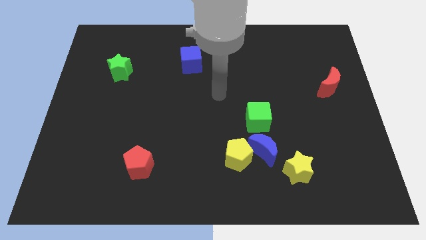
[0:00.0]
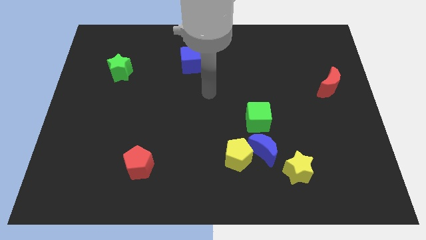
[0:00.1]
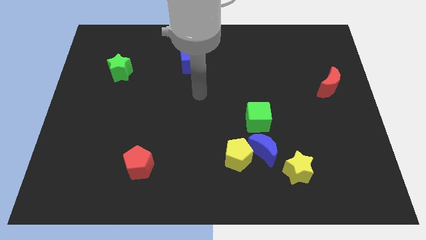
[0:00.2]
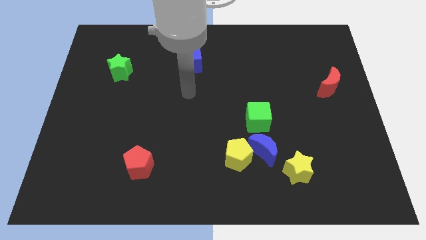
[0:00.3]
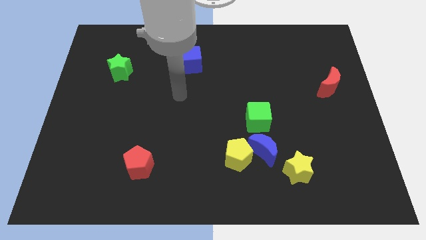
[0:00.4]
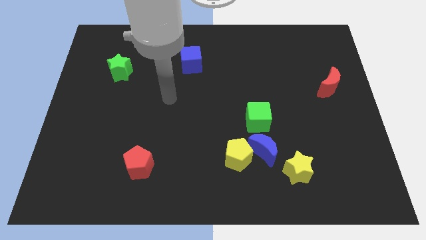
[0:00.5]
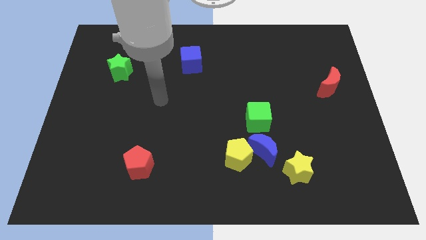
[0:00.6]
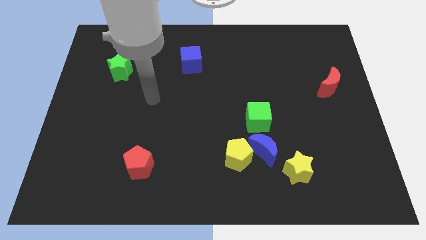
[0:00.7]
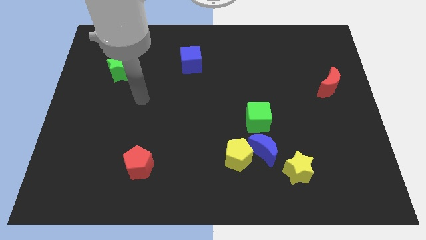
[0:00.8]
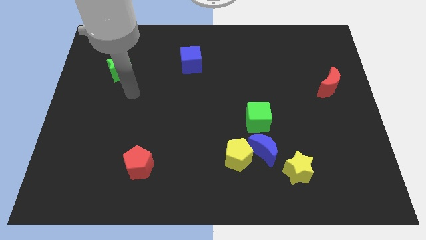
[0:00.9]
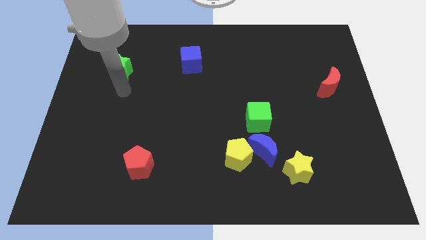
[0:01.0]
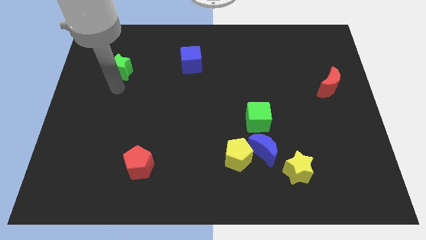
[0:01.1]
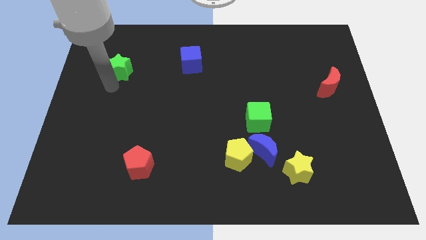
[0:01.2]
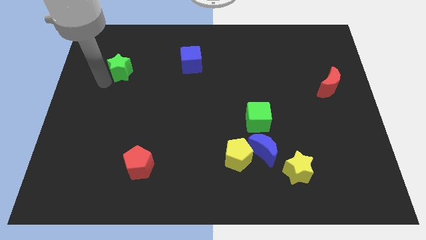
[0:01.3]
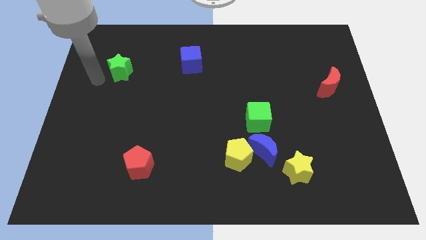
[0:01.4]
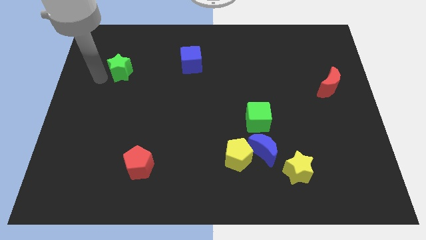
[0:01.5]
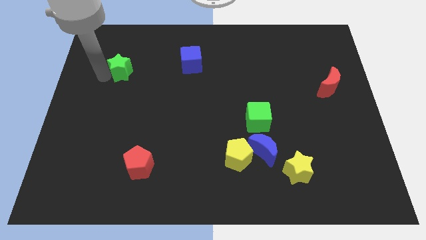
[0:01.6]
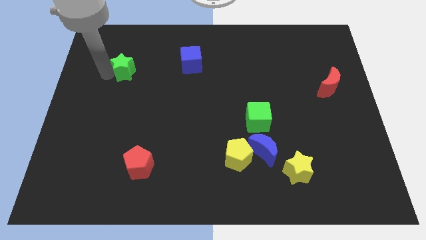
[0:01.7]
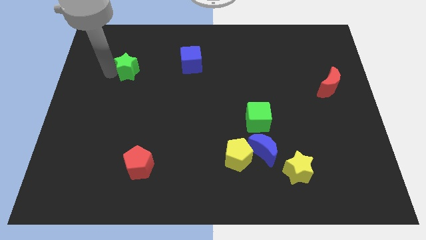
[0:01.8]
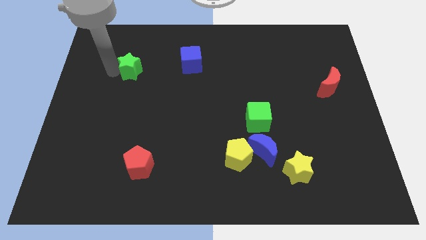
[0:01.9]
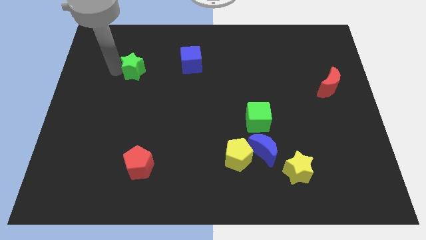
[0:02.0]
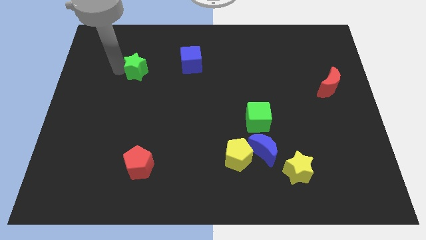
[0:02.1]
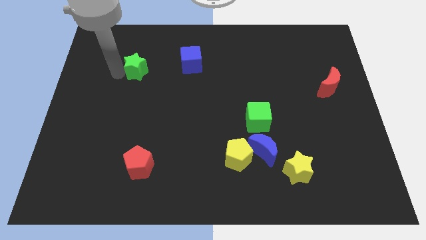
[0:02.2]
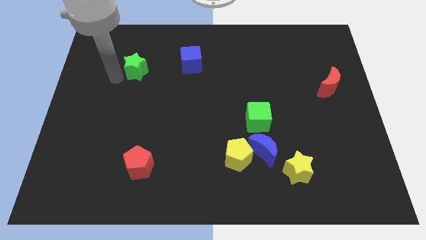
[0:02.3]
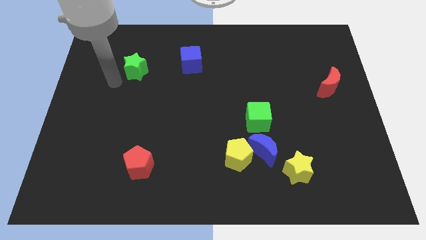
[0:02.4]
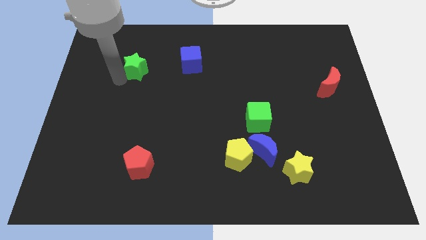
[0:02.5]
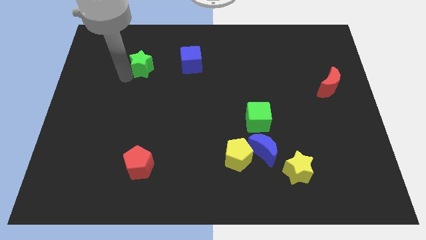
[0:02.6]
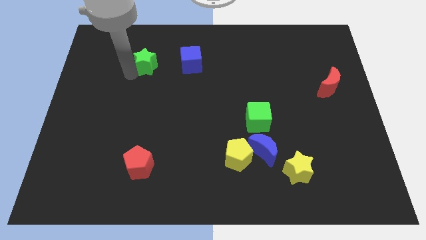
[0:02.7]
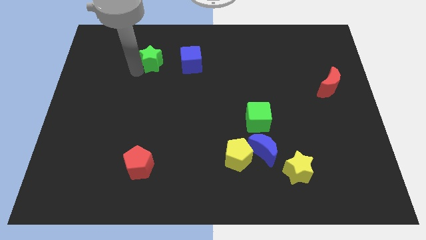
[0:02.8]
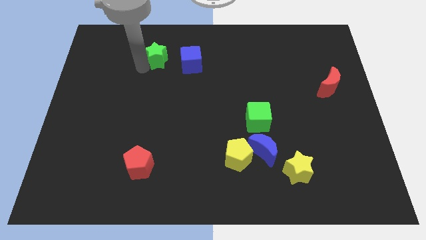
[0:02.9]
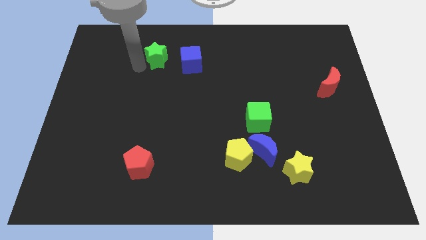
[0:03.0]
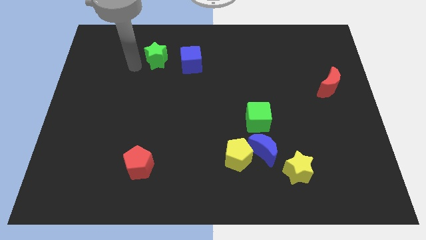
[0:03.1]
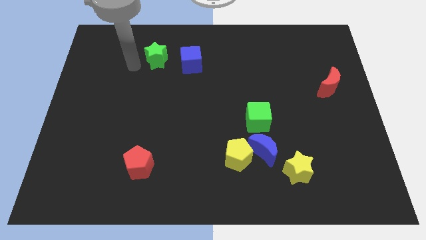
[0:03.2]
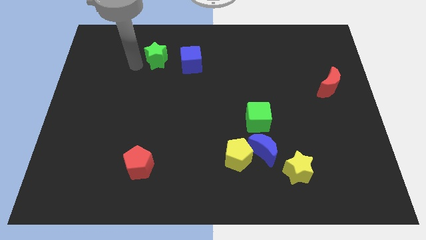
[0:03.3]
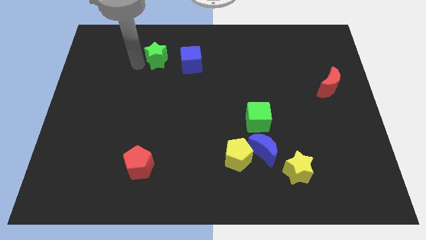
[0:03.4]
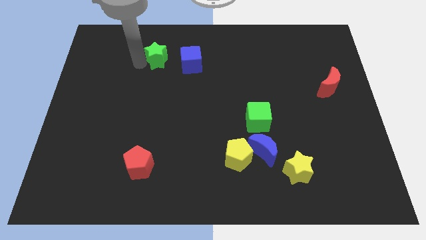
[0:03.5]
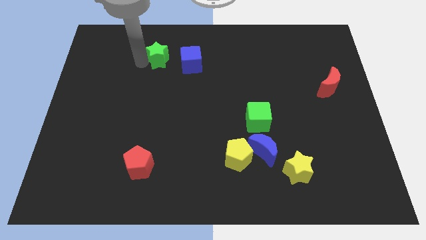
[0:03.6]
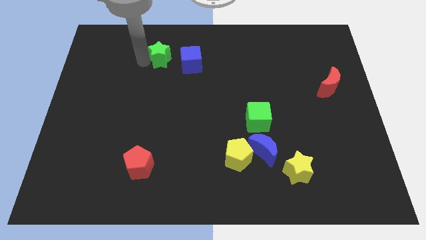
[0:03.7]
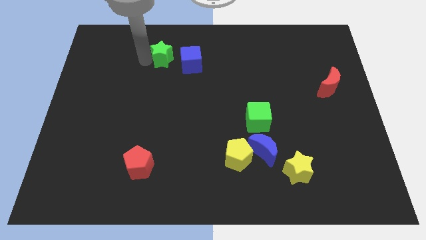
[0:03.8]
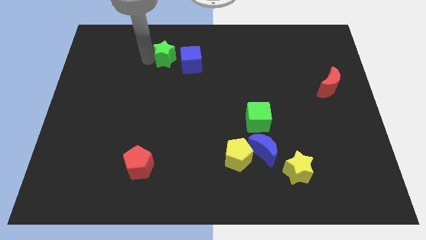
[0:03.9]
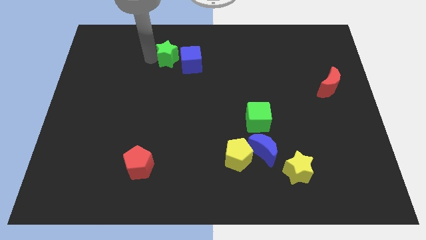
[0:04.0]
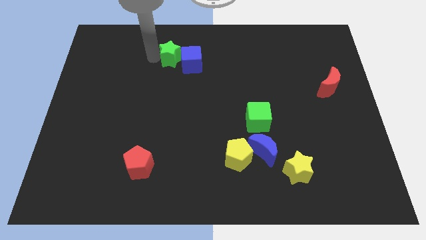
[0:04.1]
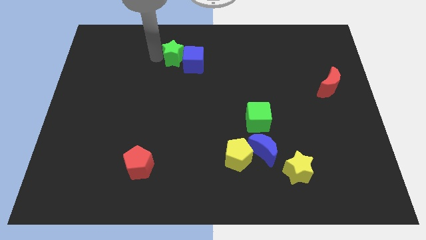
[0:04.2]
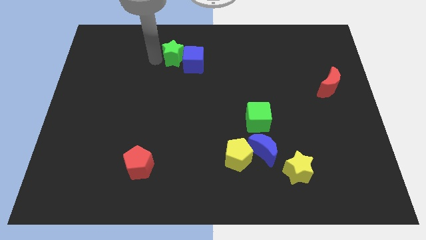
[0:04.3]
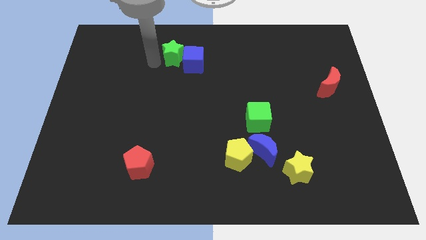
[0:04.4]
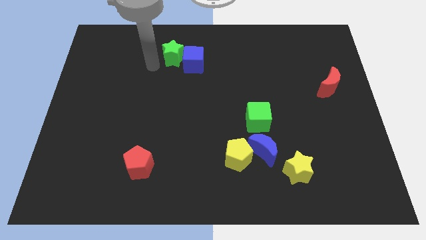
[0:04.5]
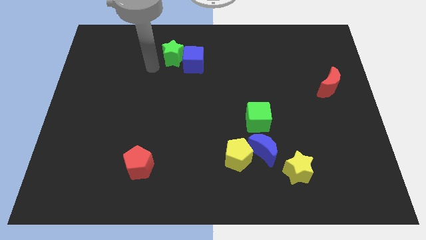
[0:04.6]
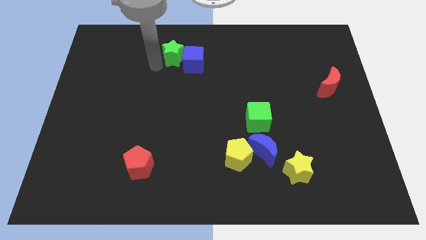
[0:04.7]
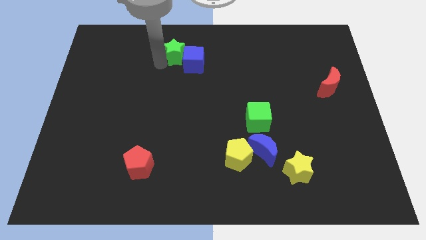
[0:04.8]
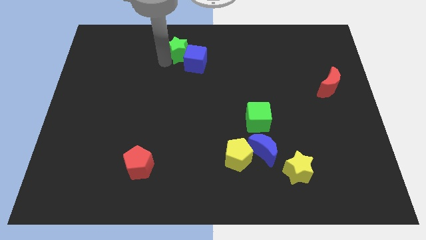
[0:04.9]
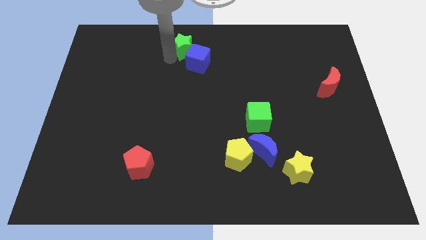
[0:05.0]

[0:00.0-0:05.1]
put the green star to the towards your base
